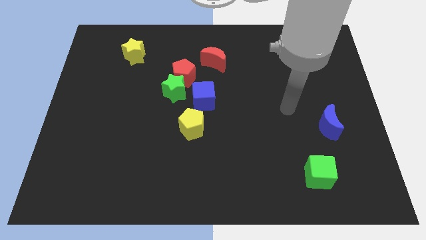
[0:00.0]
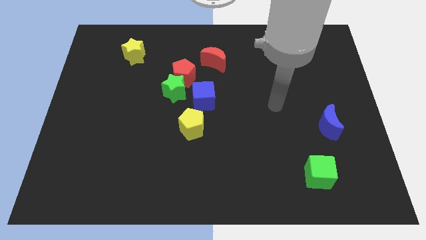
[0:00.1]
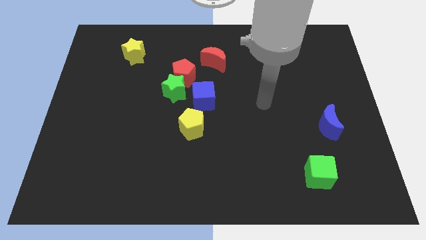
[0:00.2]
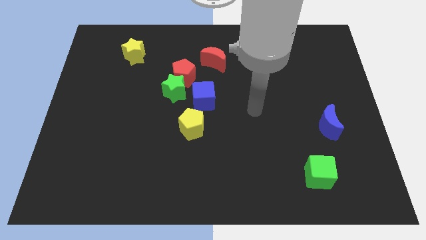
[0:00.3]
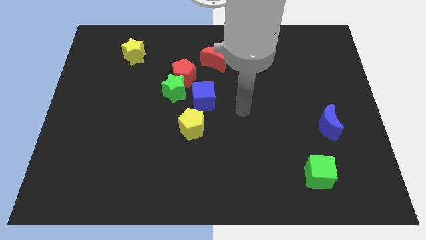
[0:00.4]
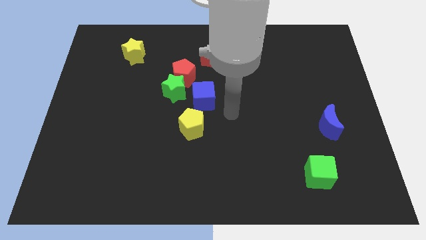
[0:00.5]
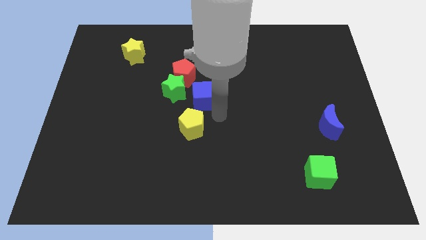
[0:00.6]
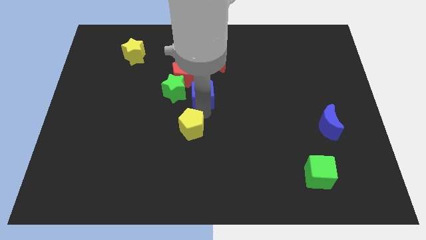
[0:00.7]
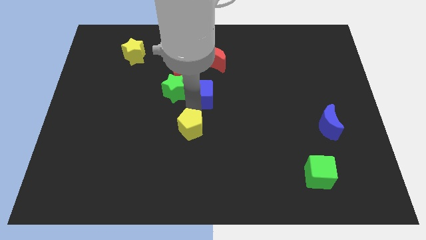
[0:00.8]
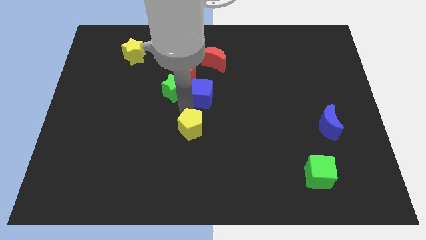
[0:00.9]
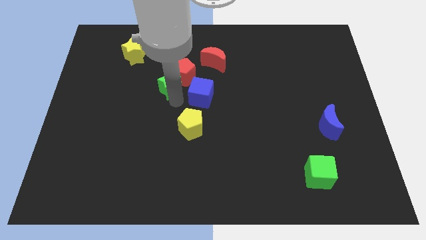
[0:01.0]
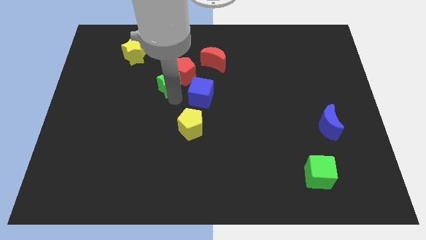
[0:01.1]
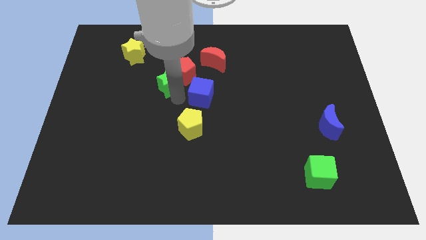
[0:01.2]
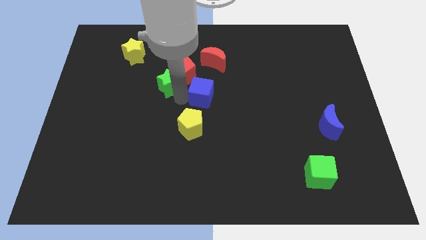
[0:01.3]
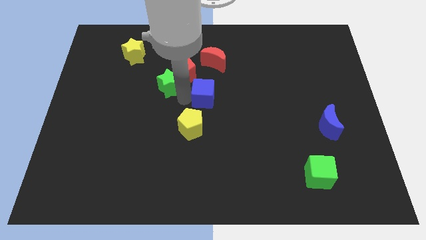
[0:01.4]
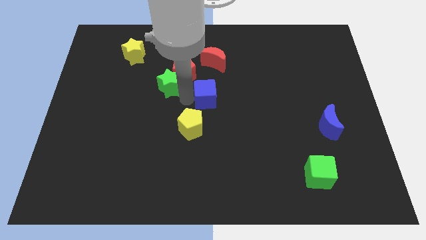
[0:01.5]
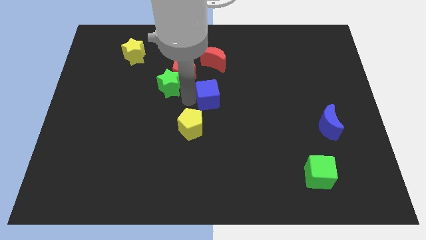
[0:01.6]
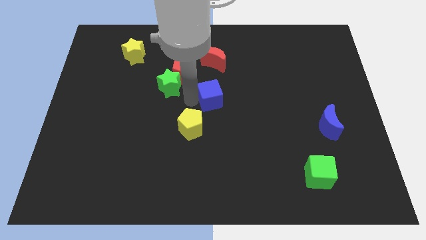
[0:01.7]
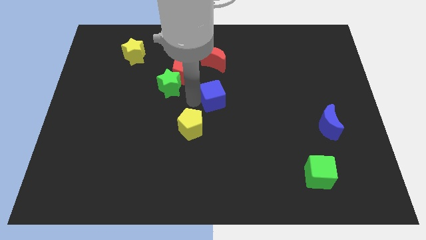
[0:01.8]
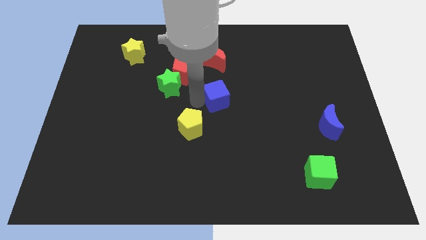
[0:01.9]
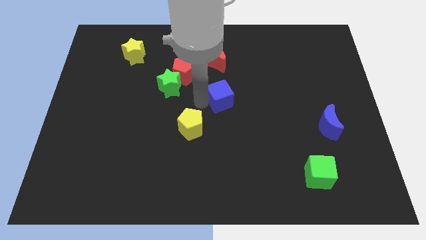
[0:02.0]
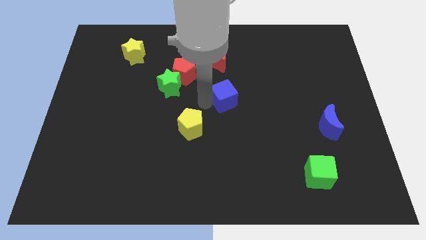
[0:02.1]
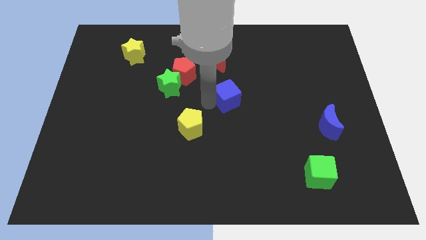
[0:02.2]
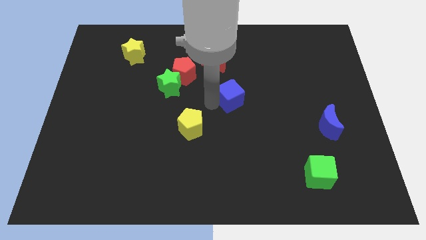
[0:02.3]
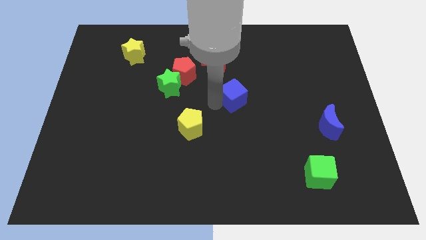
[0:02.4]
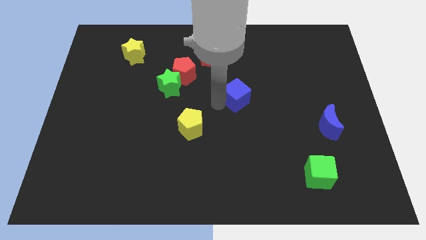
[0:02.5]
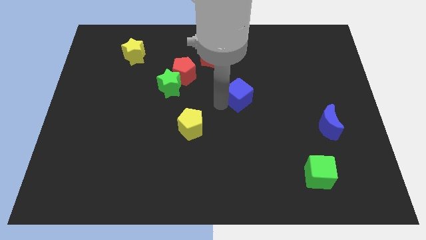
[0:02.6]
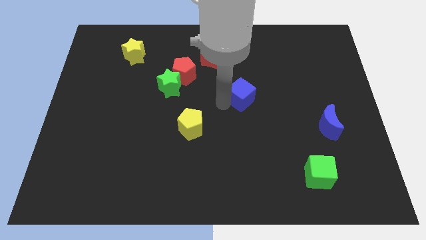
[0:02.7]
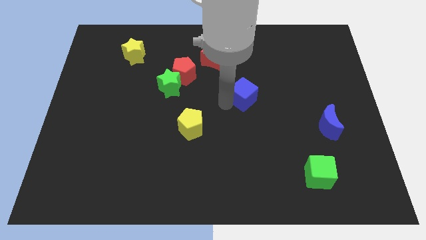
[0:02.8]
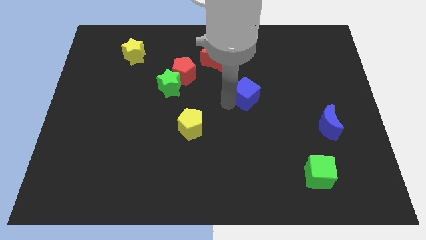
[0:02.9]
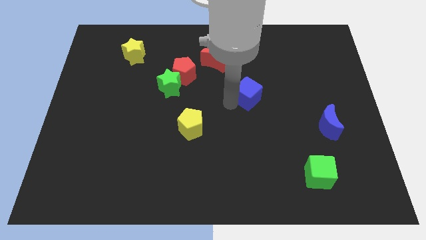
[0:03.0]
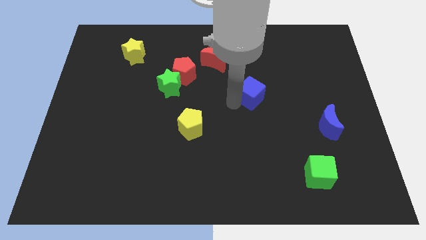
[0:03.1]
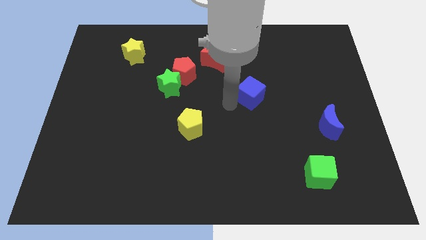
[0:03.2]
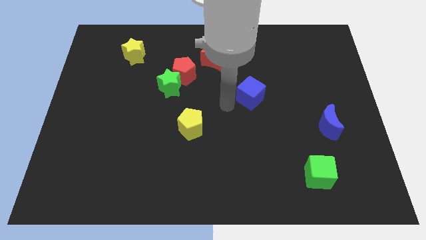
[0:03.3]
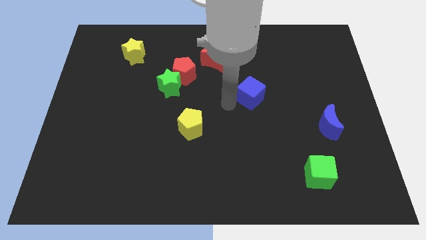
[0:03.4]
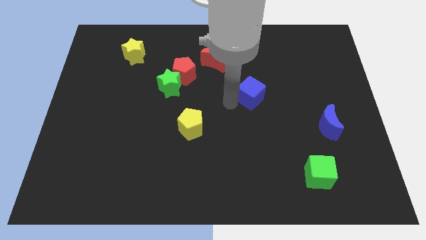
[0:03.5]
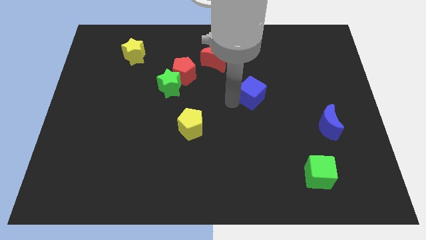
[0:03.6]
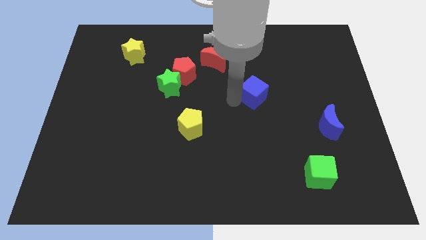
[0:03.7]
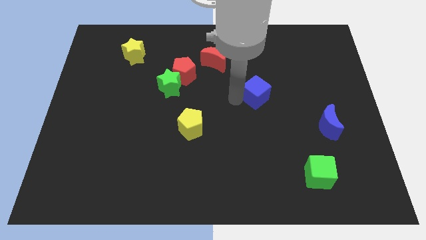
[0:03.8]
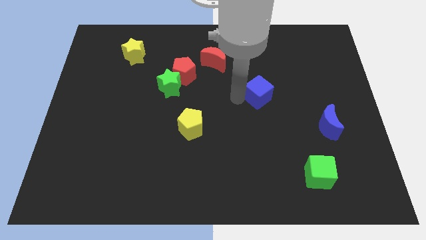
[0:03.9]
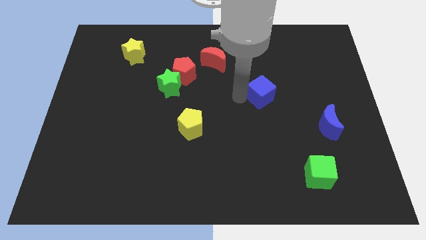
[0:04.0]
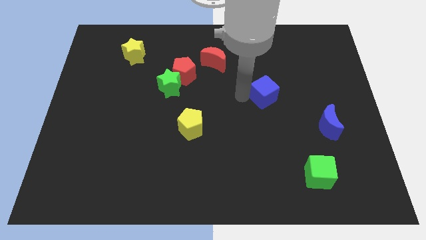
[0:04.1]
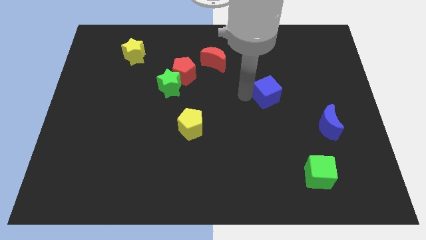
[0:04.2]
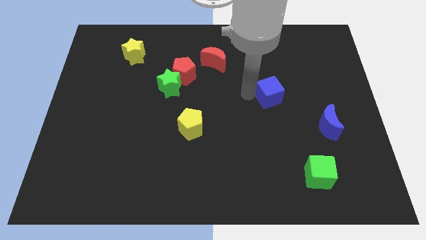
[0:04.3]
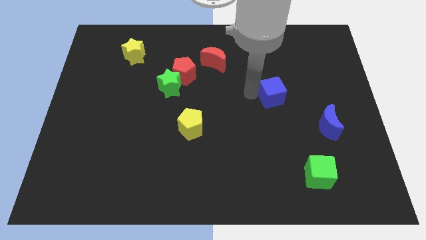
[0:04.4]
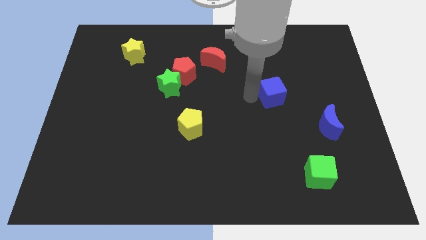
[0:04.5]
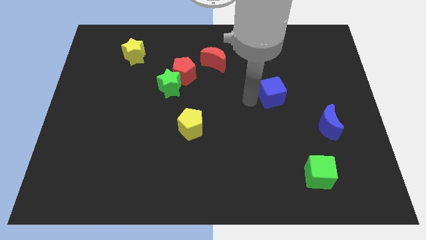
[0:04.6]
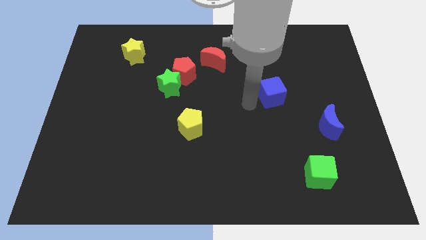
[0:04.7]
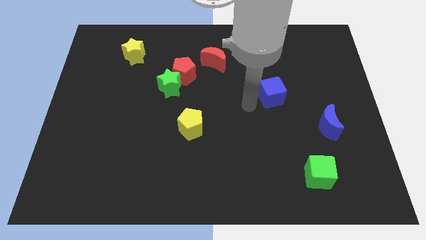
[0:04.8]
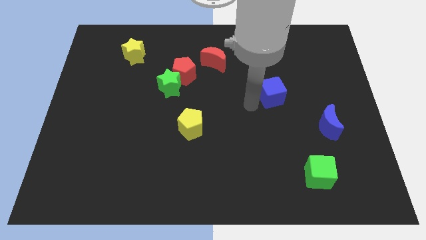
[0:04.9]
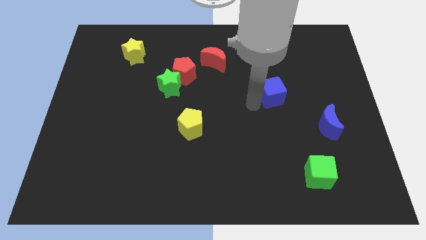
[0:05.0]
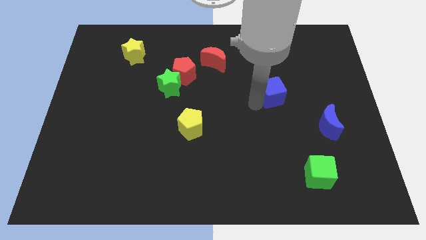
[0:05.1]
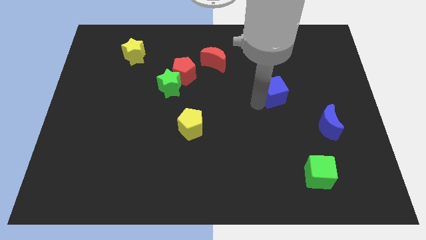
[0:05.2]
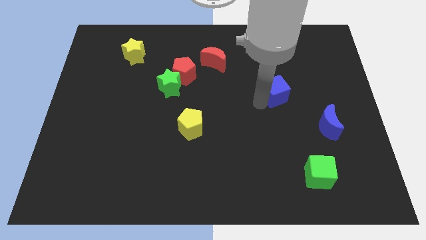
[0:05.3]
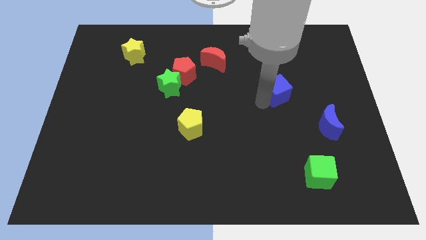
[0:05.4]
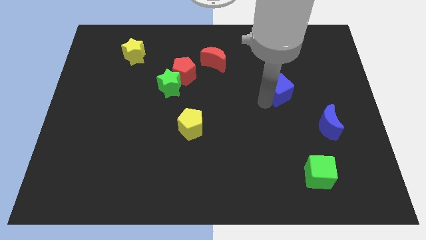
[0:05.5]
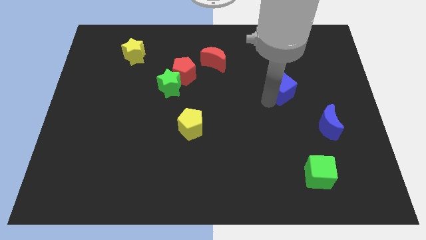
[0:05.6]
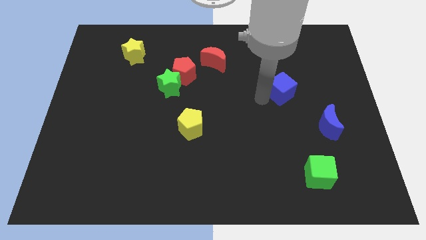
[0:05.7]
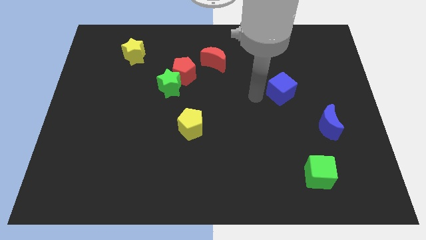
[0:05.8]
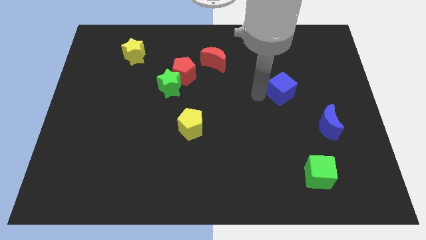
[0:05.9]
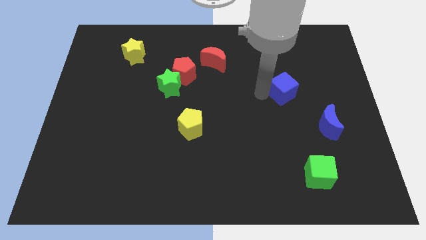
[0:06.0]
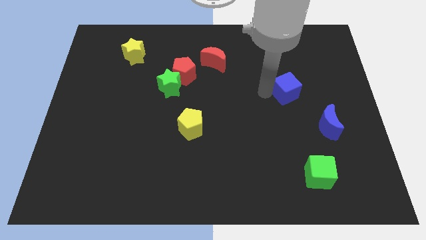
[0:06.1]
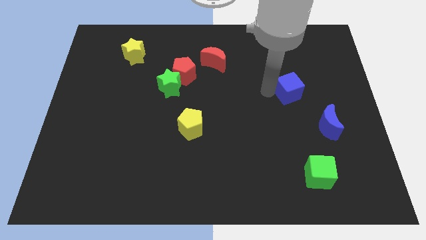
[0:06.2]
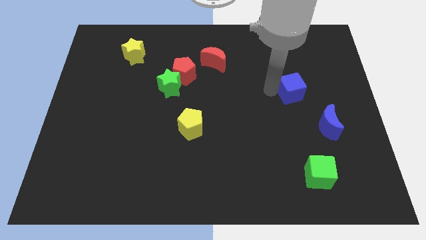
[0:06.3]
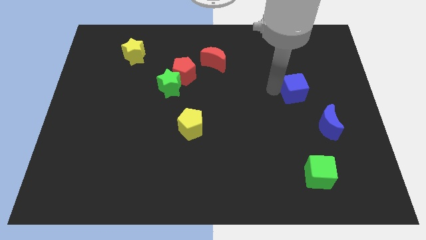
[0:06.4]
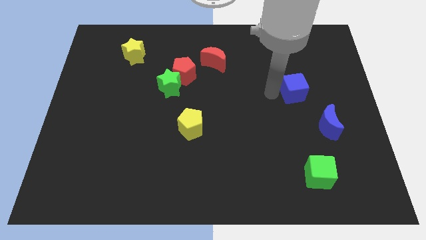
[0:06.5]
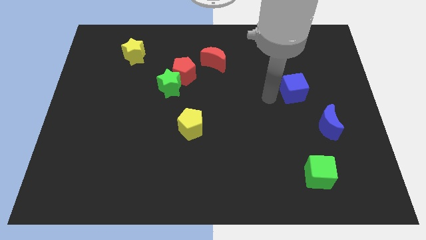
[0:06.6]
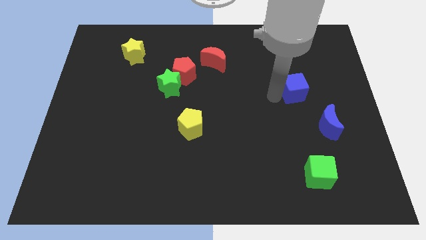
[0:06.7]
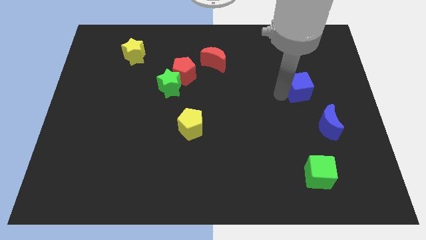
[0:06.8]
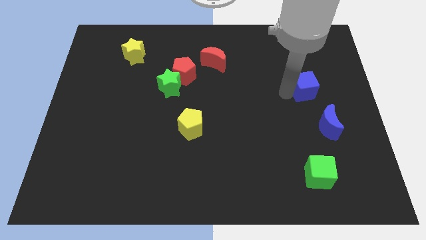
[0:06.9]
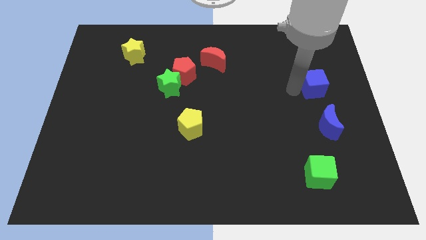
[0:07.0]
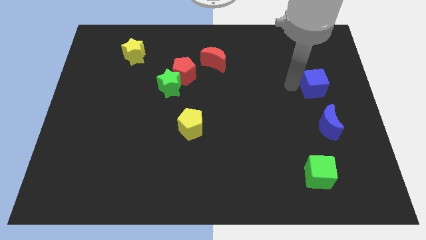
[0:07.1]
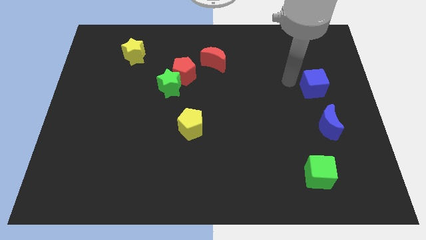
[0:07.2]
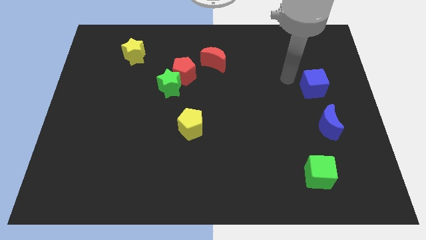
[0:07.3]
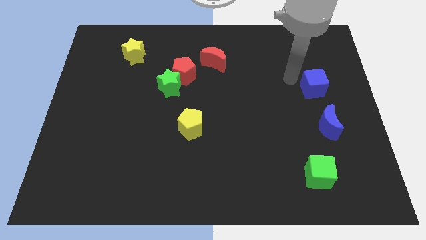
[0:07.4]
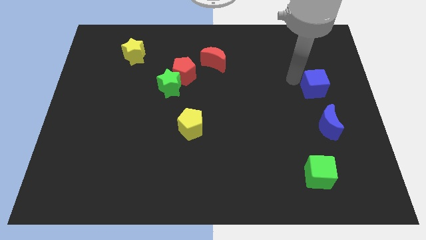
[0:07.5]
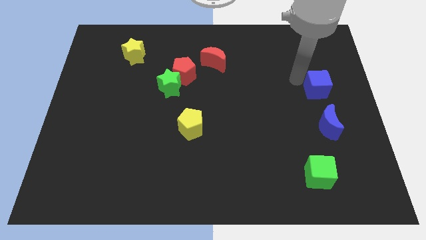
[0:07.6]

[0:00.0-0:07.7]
push the blue cube to the right side
